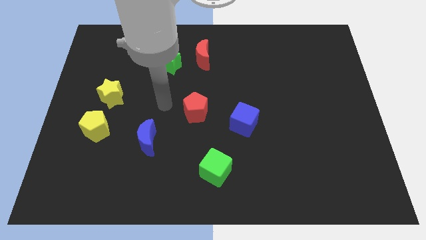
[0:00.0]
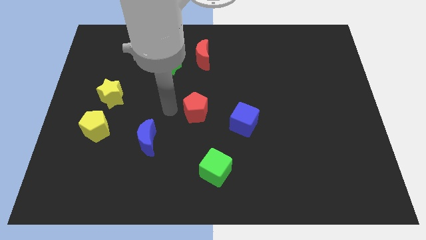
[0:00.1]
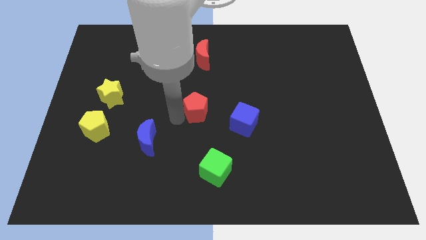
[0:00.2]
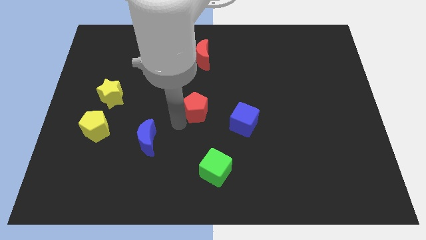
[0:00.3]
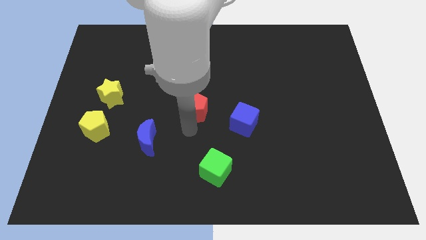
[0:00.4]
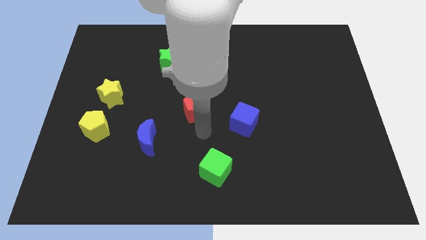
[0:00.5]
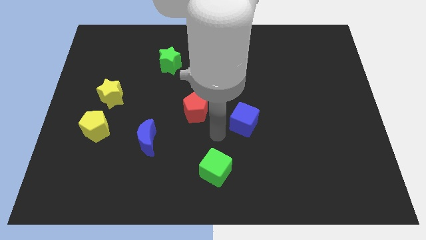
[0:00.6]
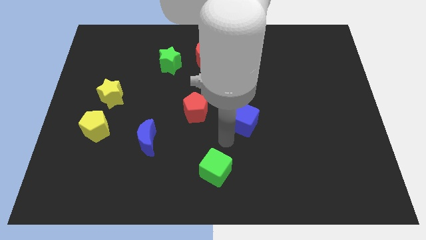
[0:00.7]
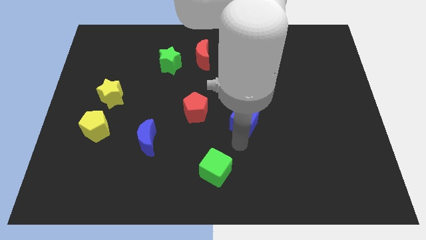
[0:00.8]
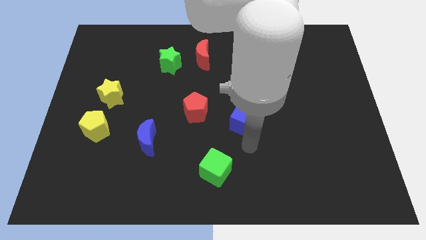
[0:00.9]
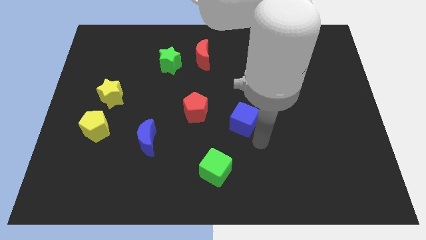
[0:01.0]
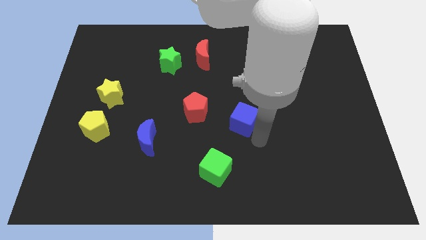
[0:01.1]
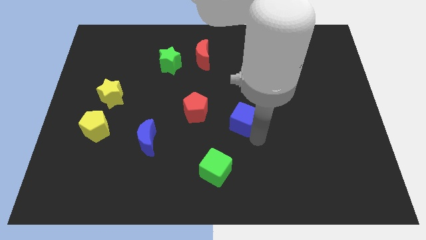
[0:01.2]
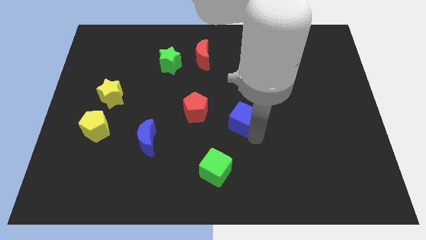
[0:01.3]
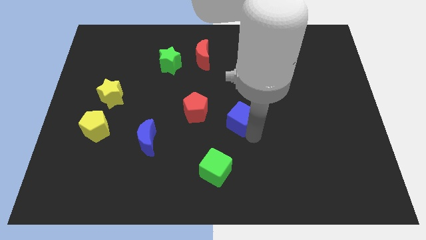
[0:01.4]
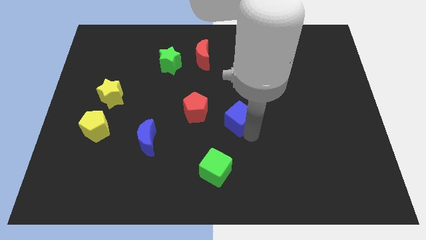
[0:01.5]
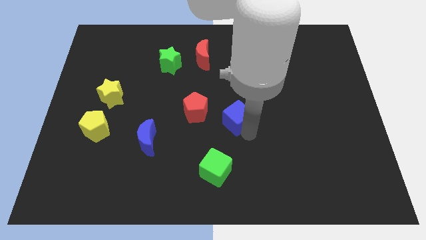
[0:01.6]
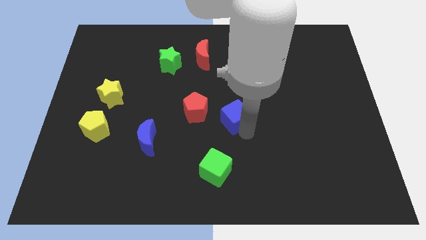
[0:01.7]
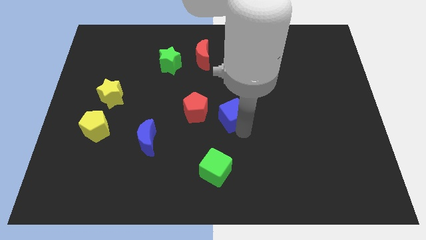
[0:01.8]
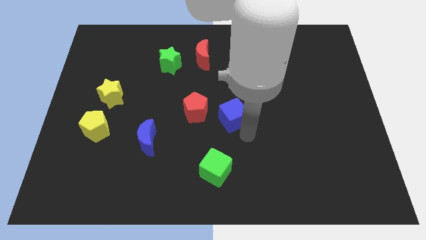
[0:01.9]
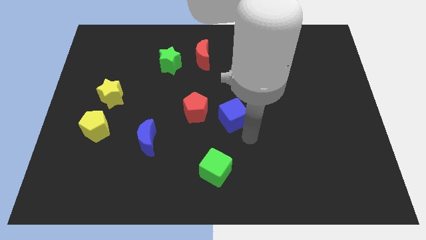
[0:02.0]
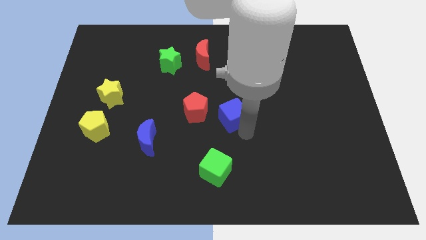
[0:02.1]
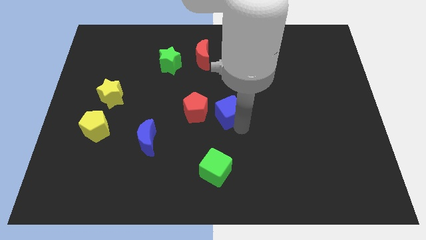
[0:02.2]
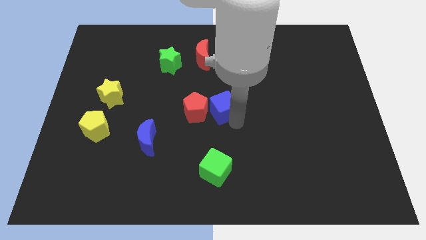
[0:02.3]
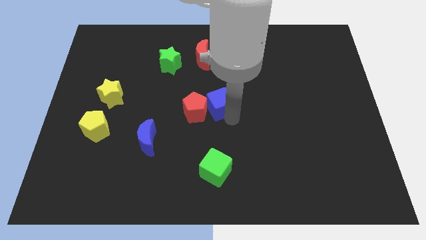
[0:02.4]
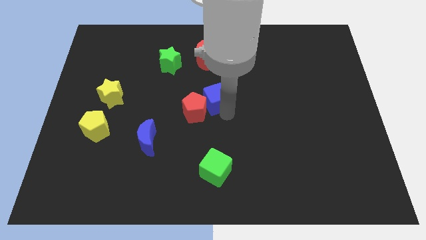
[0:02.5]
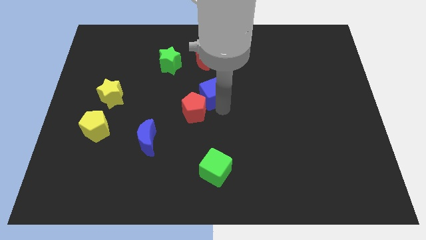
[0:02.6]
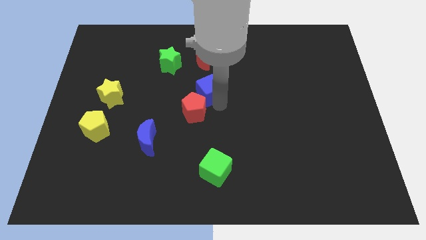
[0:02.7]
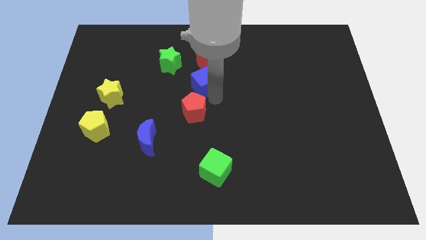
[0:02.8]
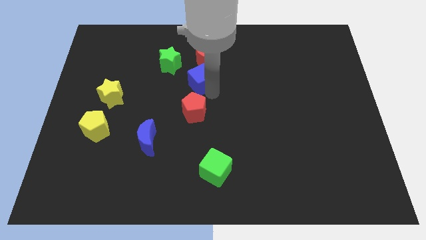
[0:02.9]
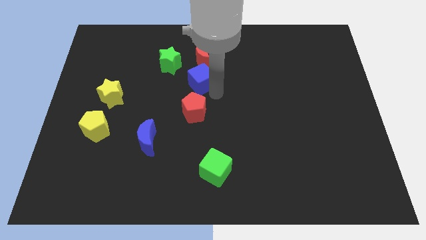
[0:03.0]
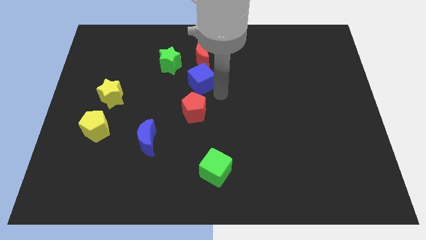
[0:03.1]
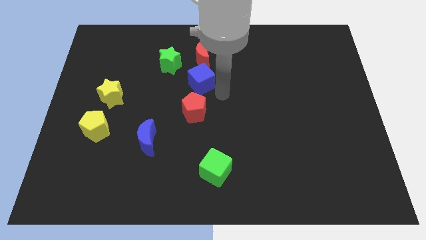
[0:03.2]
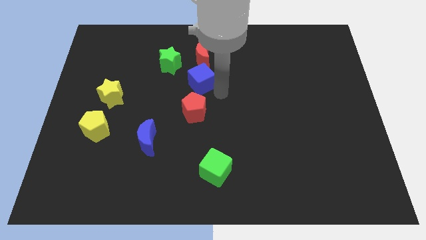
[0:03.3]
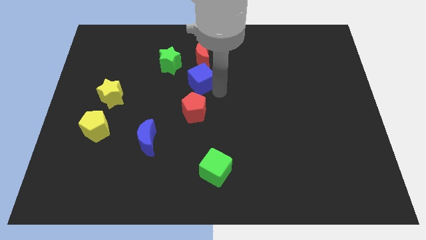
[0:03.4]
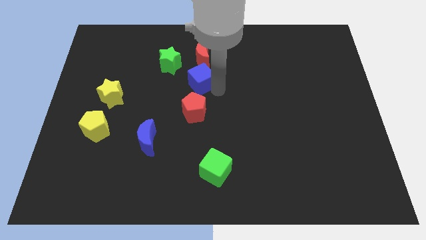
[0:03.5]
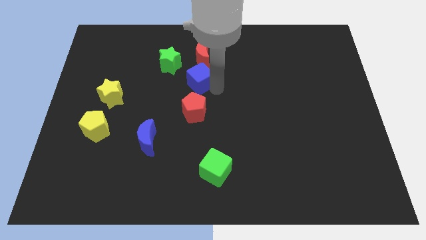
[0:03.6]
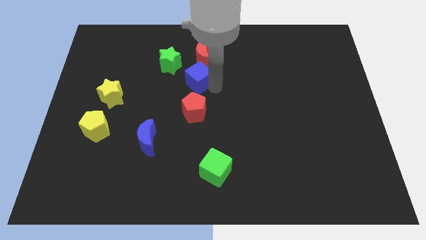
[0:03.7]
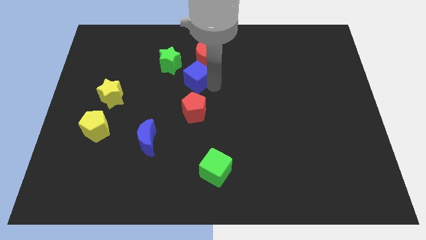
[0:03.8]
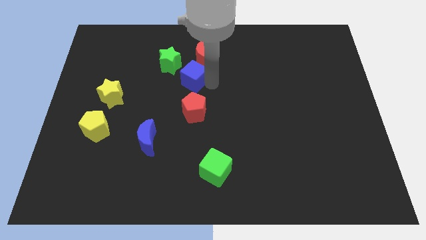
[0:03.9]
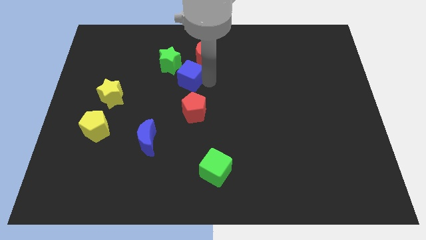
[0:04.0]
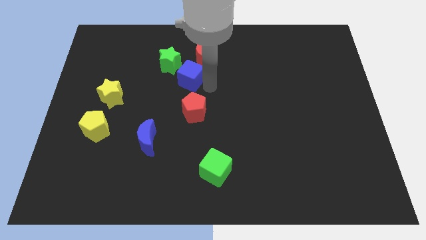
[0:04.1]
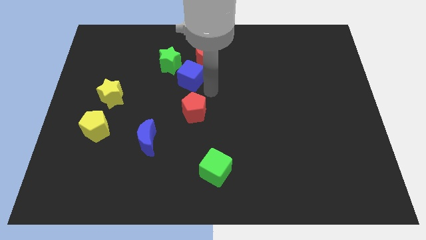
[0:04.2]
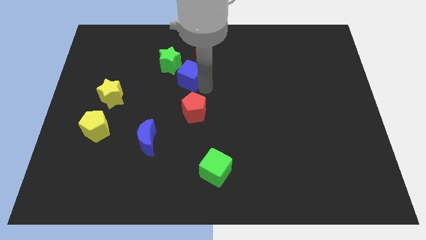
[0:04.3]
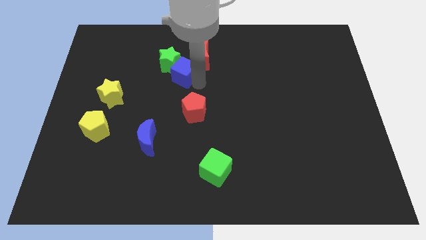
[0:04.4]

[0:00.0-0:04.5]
put the blue cube towards the green star

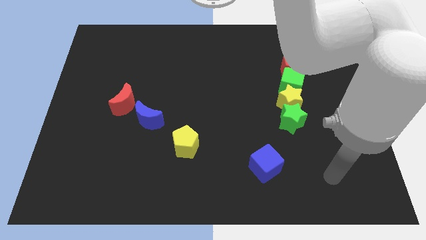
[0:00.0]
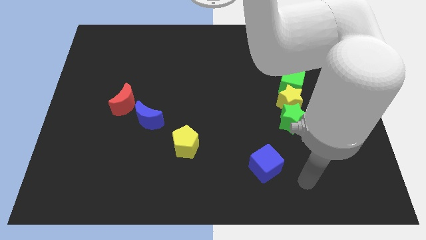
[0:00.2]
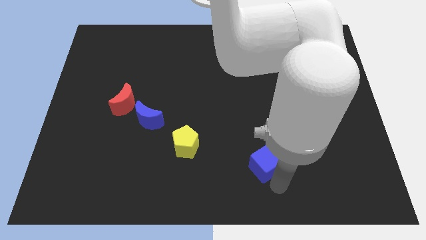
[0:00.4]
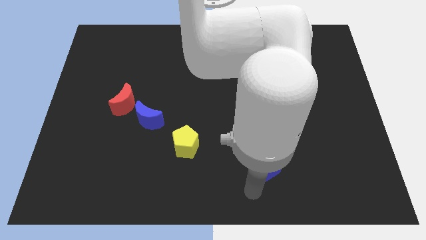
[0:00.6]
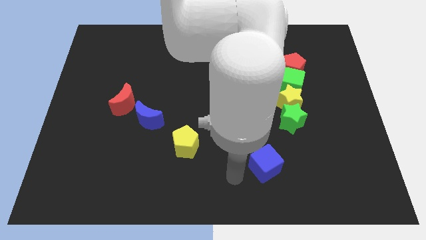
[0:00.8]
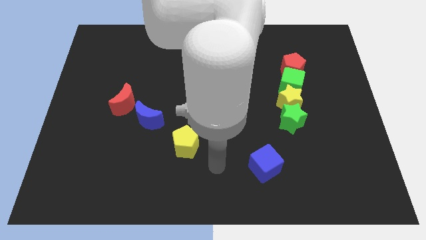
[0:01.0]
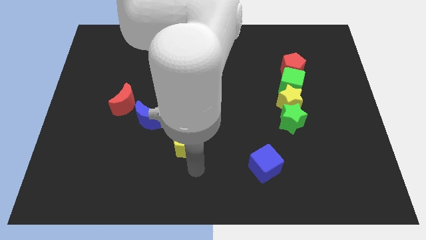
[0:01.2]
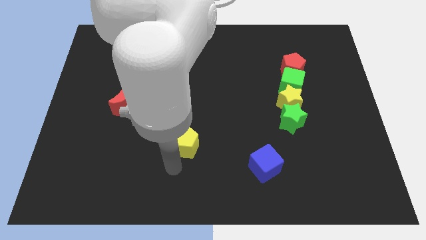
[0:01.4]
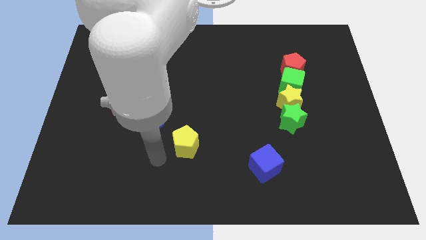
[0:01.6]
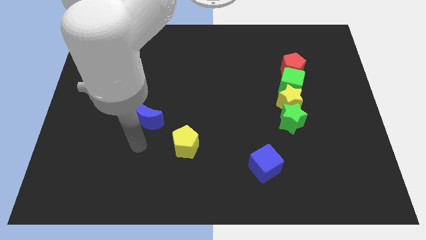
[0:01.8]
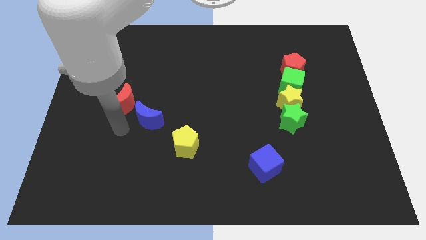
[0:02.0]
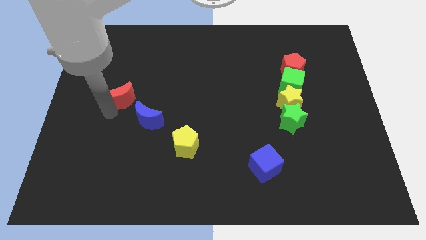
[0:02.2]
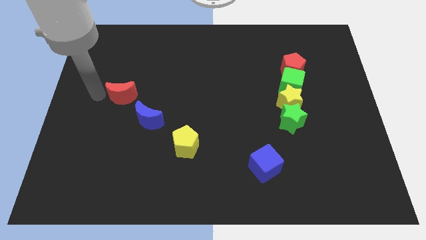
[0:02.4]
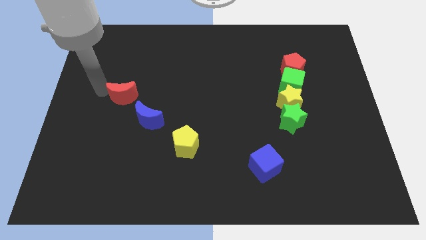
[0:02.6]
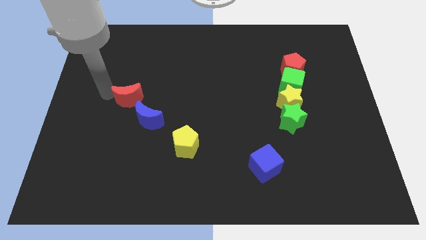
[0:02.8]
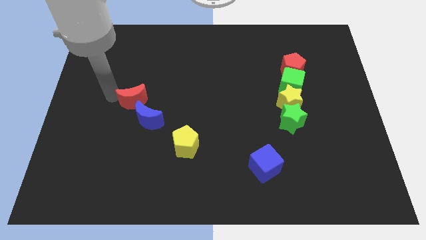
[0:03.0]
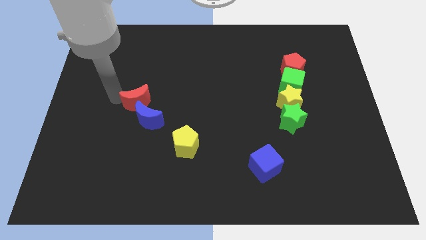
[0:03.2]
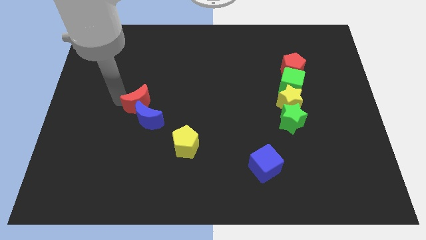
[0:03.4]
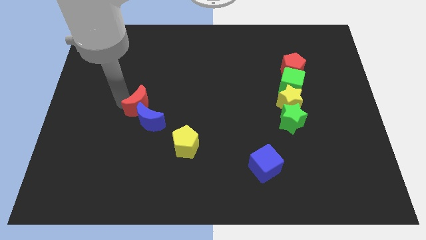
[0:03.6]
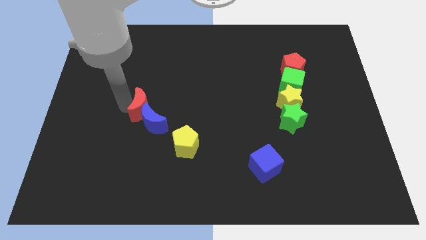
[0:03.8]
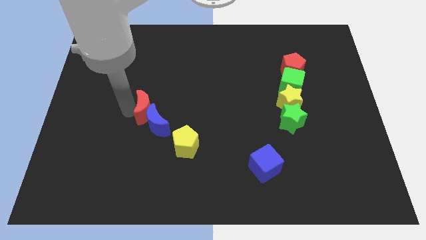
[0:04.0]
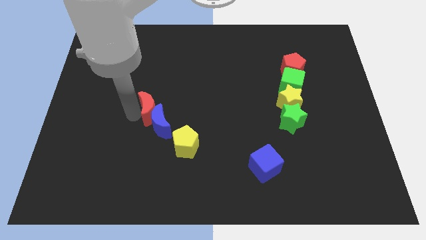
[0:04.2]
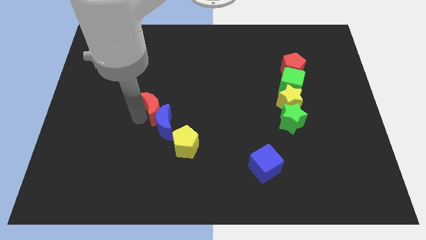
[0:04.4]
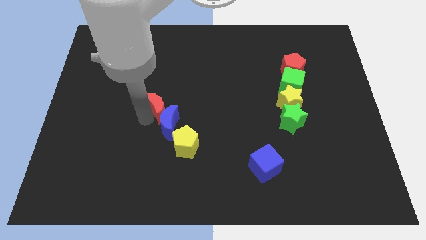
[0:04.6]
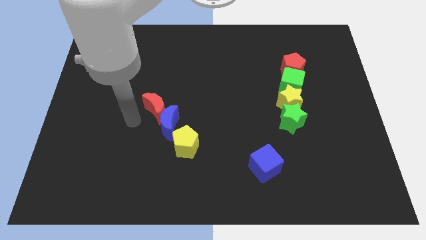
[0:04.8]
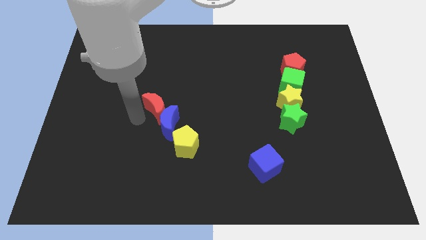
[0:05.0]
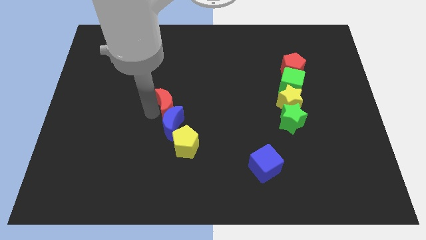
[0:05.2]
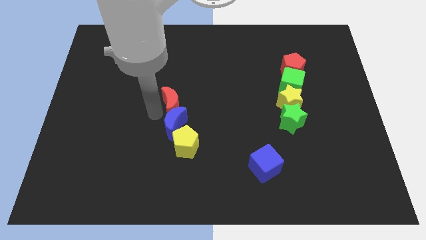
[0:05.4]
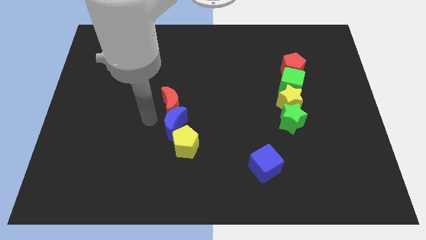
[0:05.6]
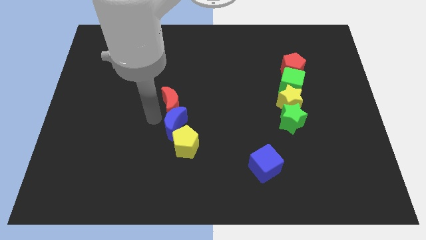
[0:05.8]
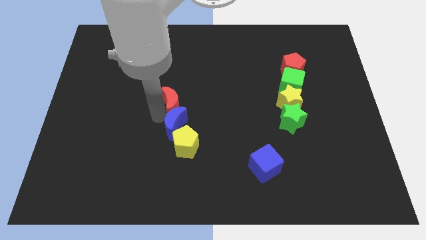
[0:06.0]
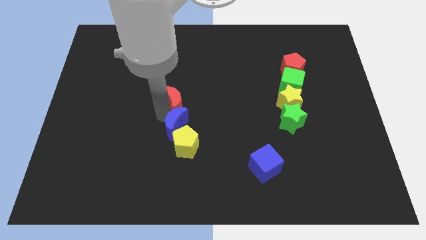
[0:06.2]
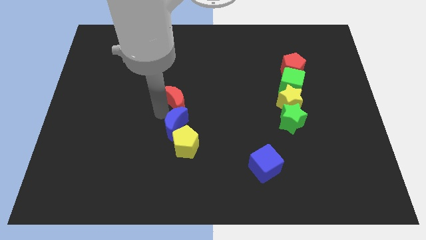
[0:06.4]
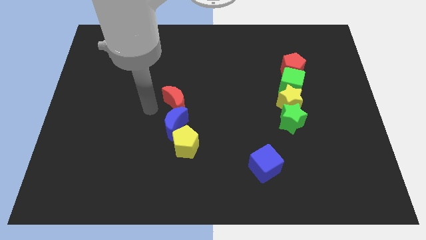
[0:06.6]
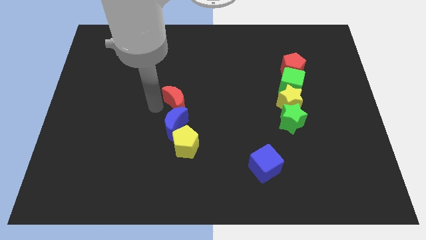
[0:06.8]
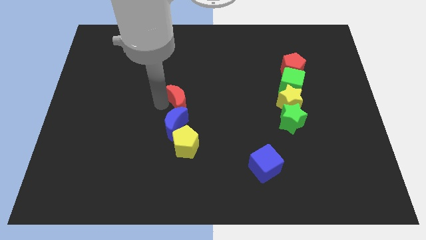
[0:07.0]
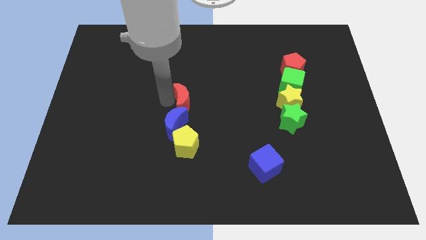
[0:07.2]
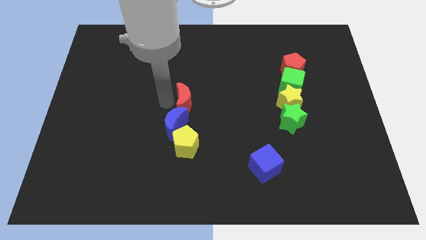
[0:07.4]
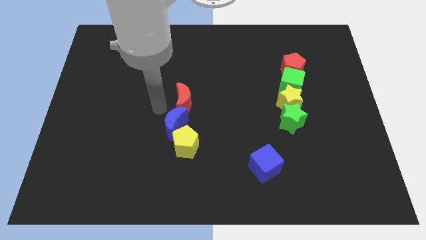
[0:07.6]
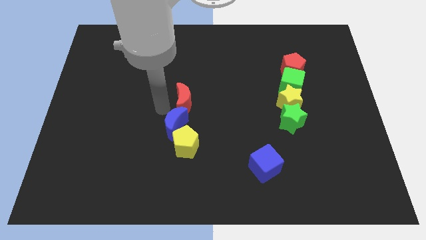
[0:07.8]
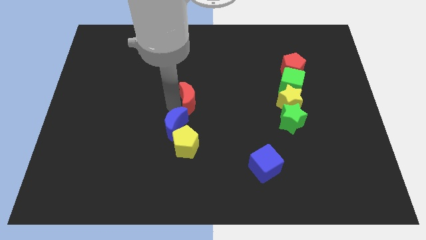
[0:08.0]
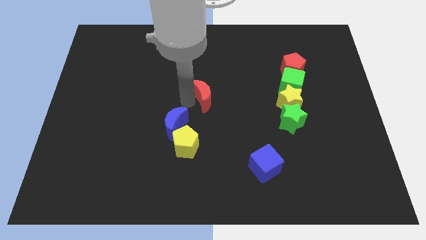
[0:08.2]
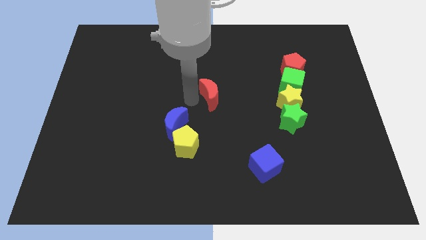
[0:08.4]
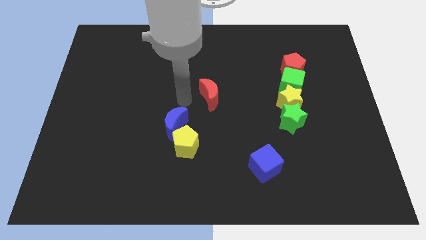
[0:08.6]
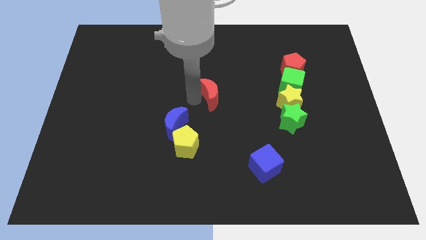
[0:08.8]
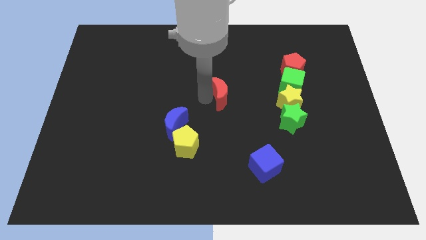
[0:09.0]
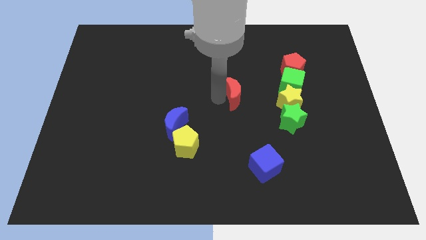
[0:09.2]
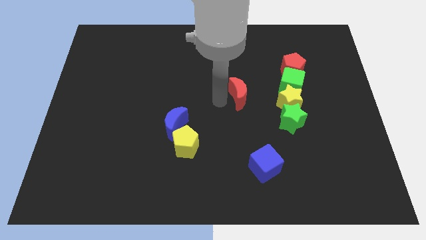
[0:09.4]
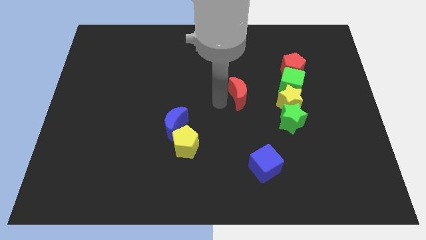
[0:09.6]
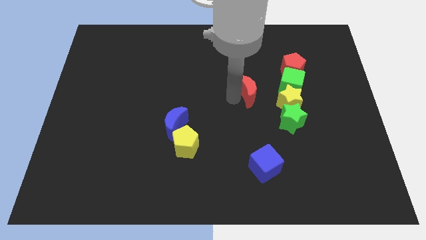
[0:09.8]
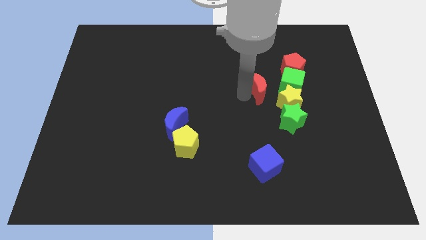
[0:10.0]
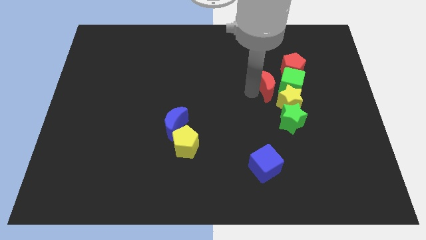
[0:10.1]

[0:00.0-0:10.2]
slide the red moon next to the green cube
